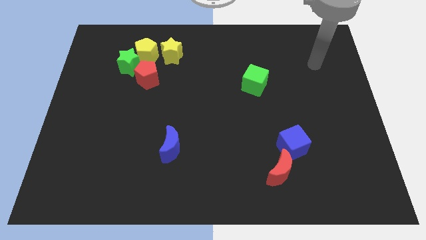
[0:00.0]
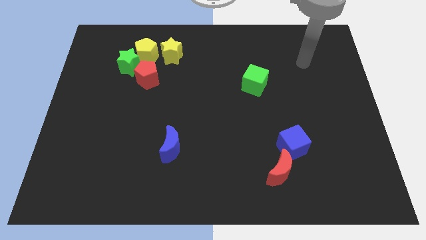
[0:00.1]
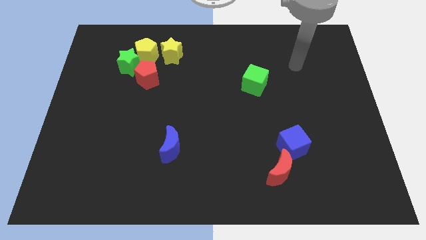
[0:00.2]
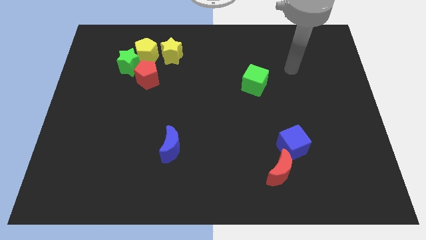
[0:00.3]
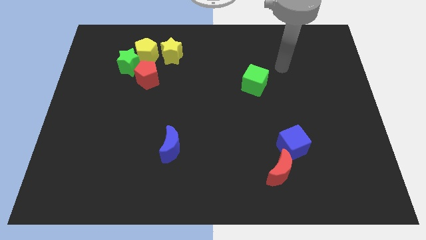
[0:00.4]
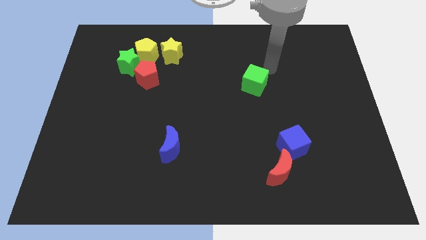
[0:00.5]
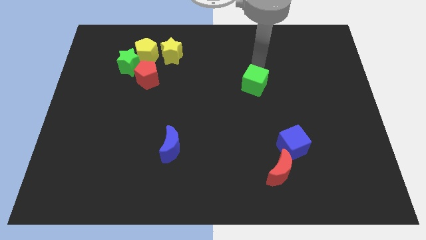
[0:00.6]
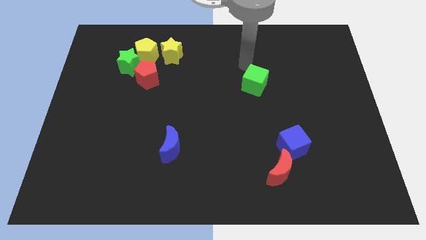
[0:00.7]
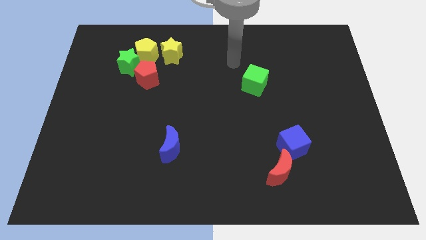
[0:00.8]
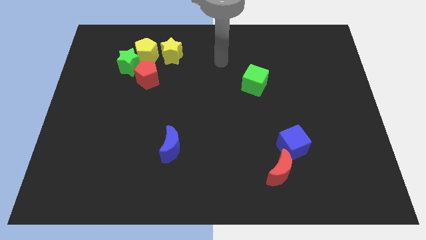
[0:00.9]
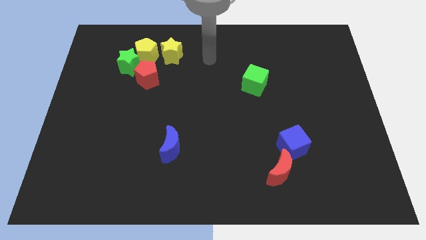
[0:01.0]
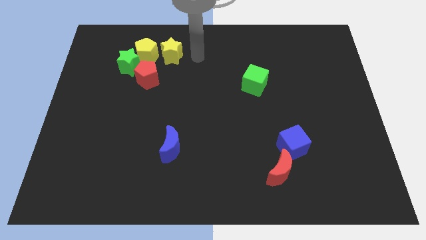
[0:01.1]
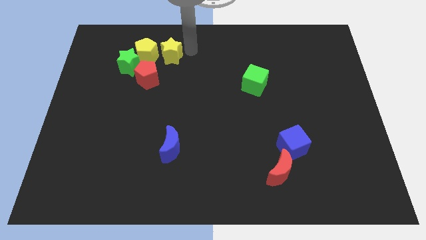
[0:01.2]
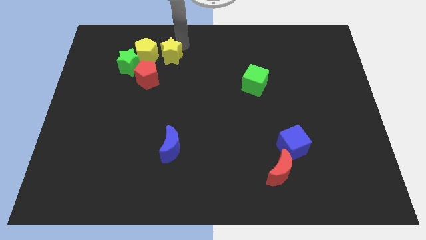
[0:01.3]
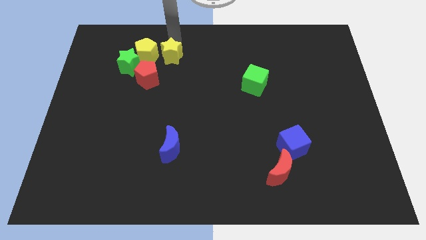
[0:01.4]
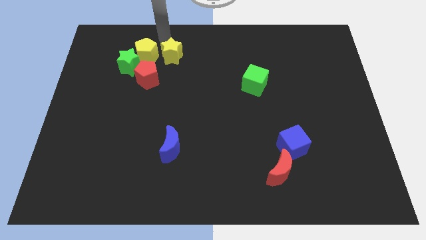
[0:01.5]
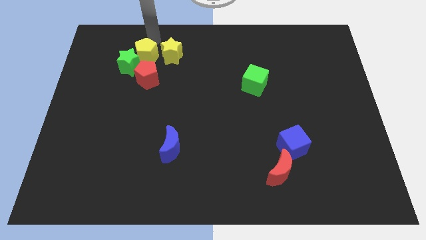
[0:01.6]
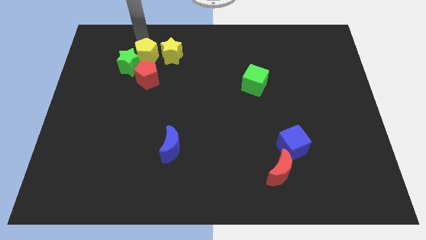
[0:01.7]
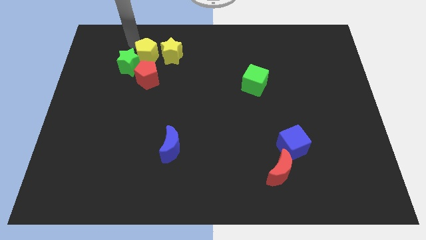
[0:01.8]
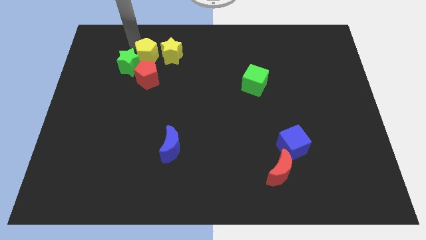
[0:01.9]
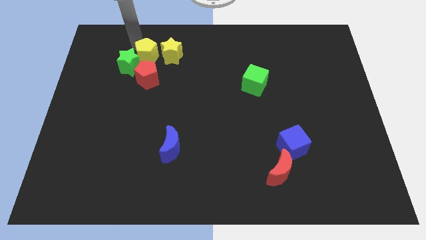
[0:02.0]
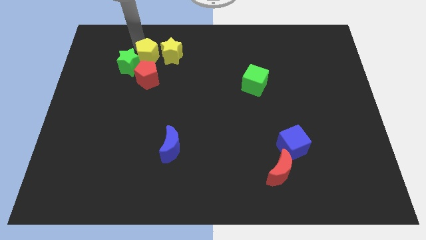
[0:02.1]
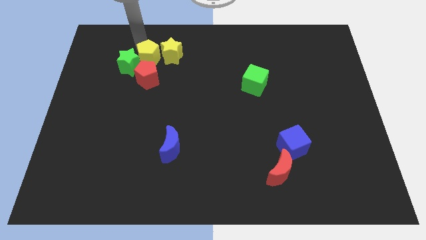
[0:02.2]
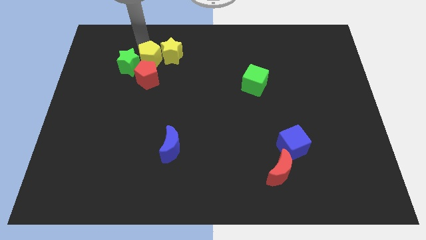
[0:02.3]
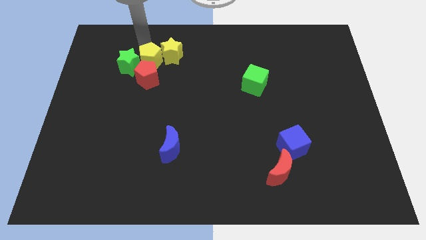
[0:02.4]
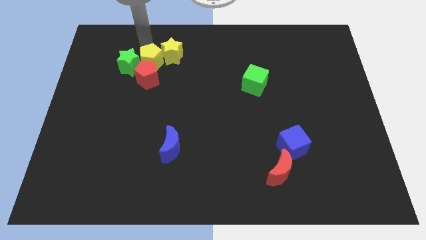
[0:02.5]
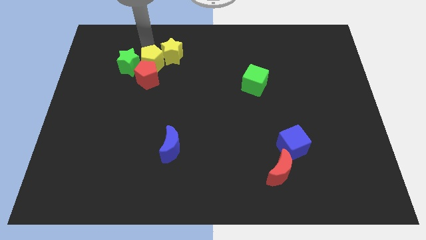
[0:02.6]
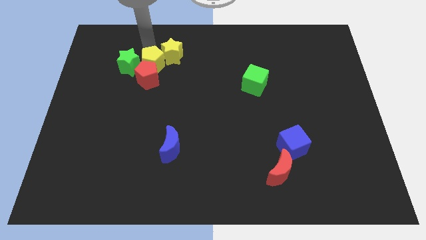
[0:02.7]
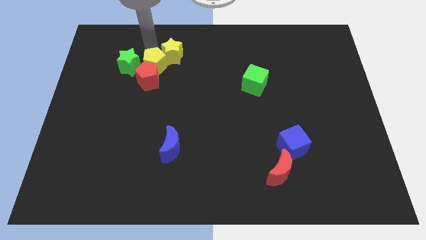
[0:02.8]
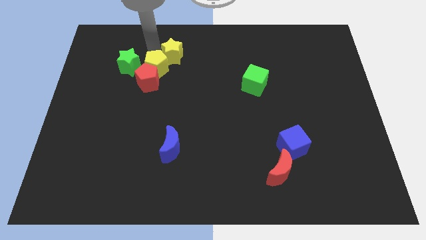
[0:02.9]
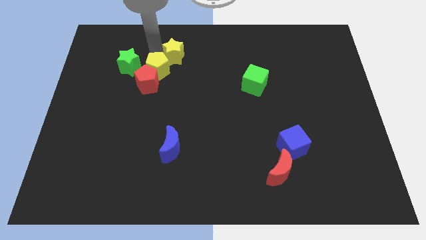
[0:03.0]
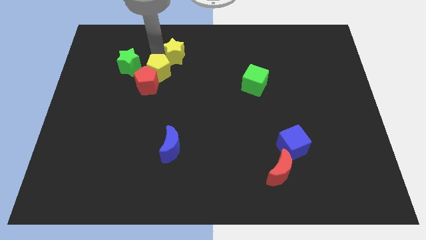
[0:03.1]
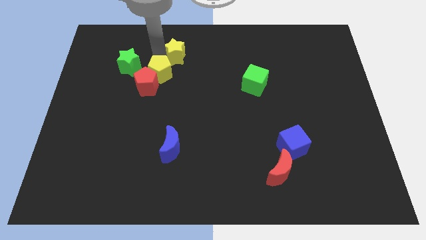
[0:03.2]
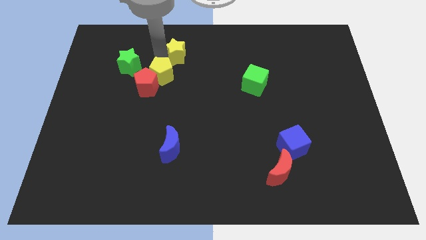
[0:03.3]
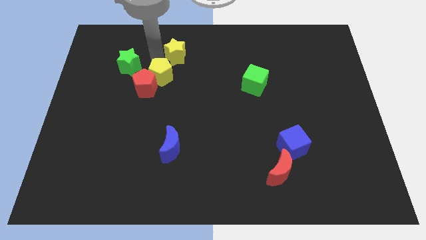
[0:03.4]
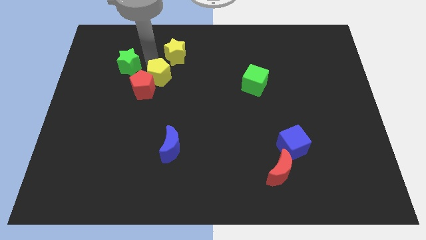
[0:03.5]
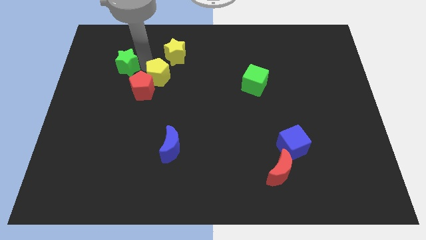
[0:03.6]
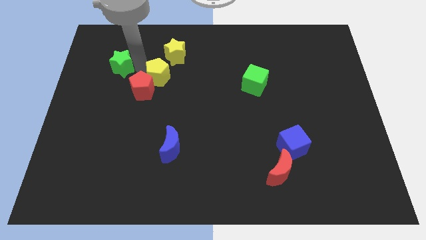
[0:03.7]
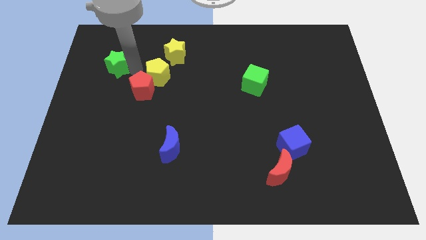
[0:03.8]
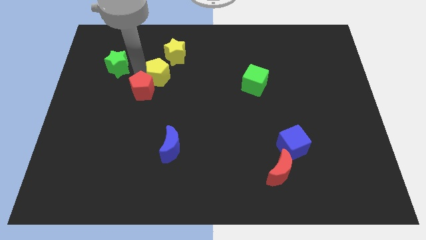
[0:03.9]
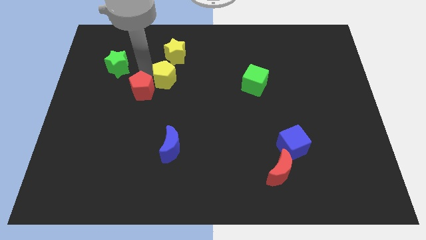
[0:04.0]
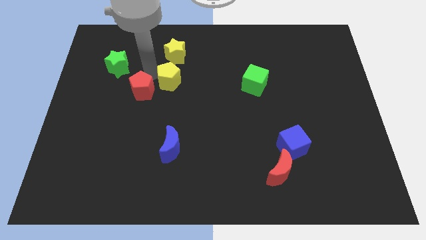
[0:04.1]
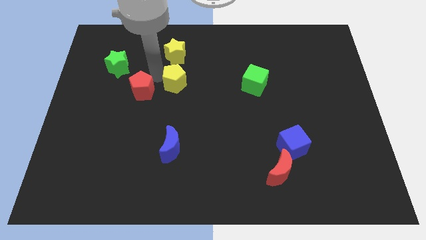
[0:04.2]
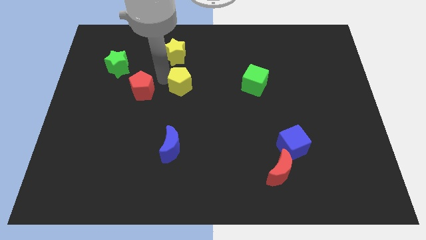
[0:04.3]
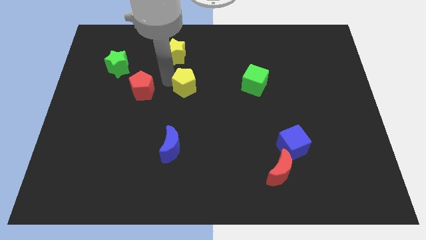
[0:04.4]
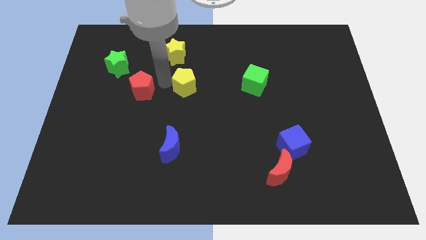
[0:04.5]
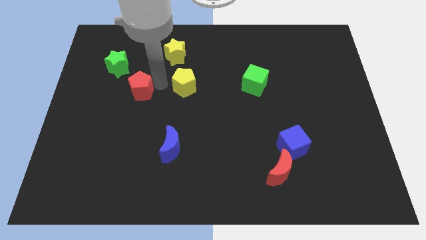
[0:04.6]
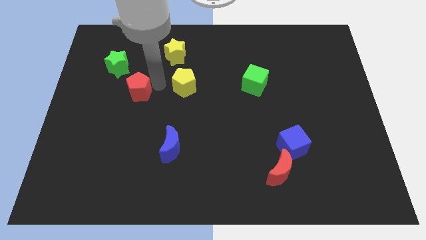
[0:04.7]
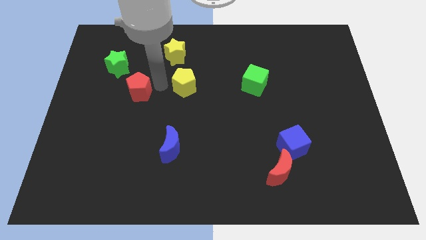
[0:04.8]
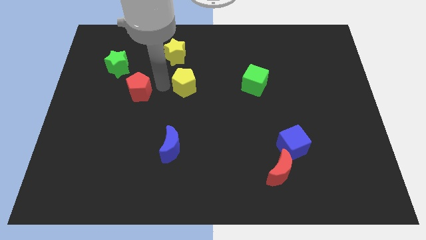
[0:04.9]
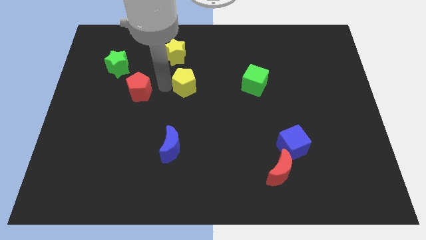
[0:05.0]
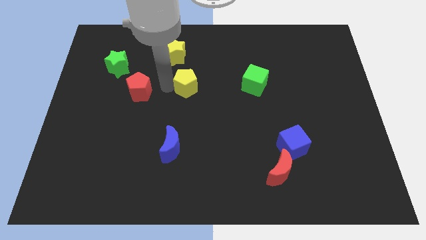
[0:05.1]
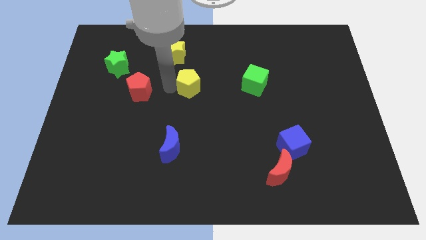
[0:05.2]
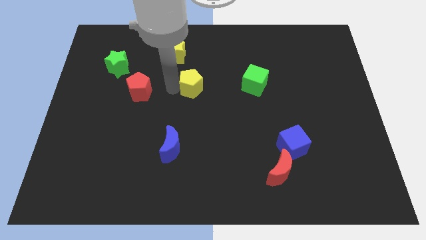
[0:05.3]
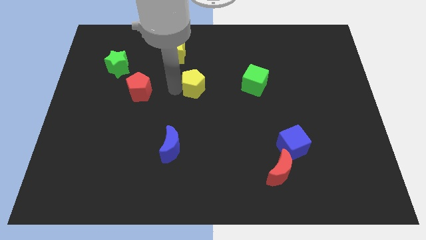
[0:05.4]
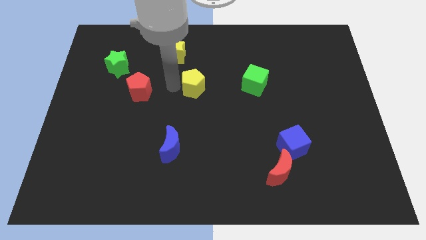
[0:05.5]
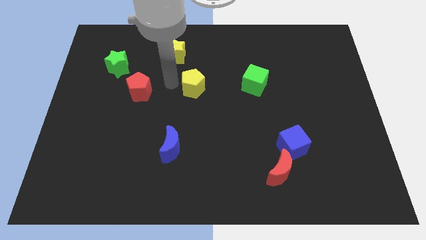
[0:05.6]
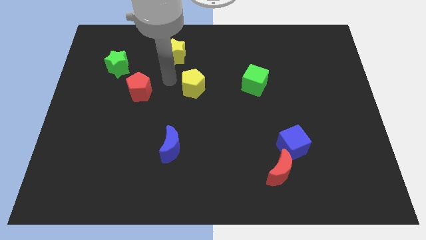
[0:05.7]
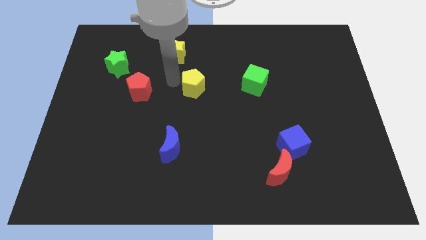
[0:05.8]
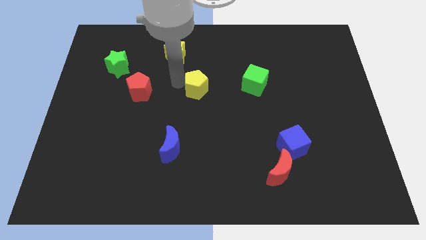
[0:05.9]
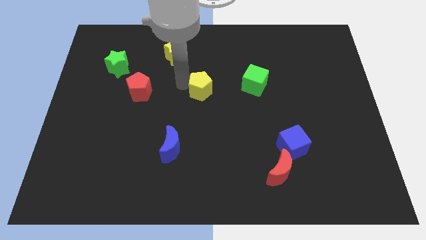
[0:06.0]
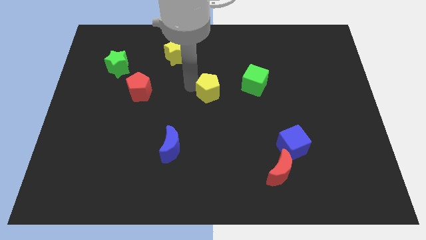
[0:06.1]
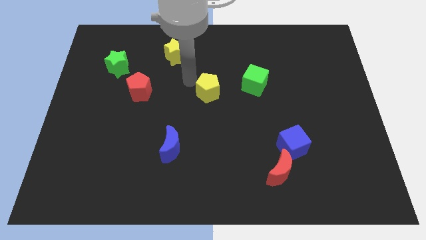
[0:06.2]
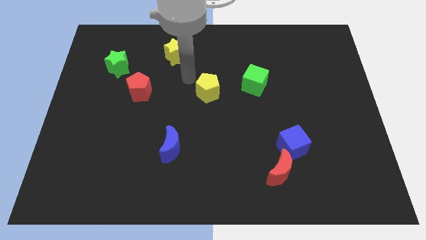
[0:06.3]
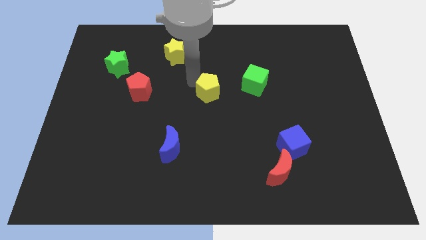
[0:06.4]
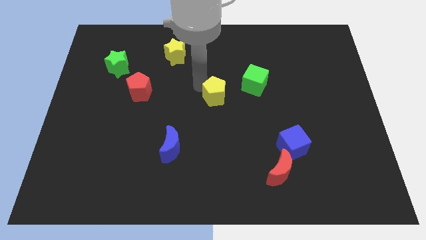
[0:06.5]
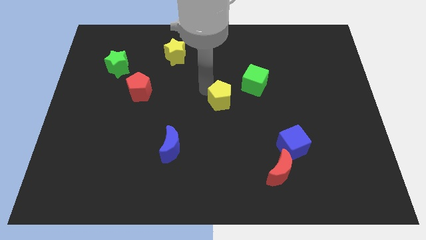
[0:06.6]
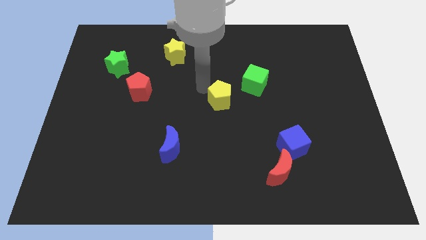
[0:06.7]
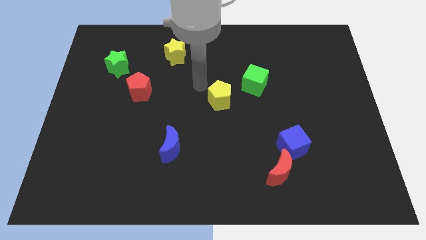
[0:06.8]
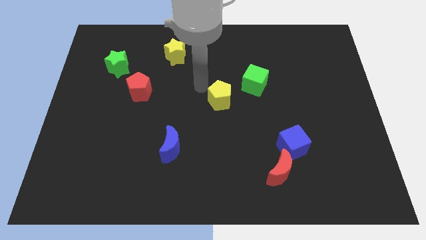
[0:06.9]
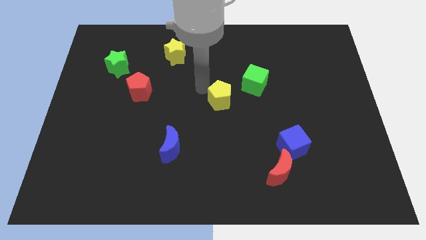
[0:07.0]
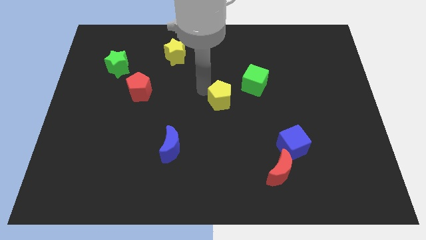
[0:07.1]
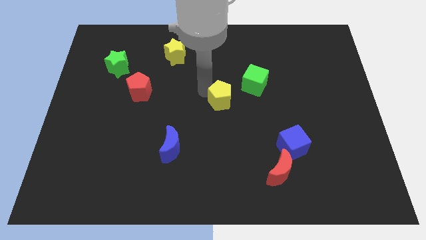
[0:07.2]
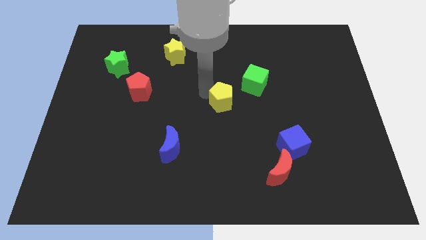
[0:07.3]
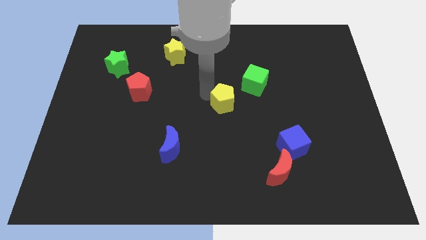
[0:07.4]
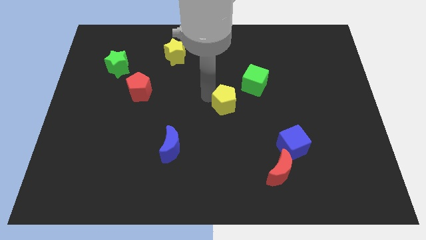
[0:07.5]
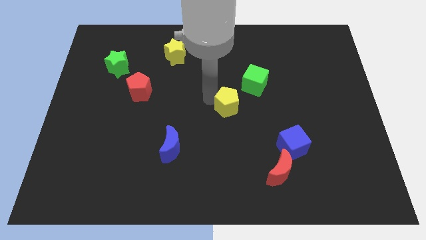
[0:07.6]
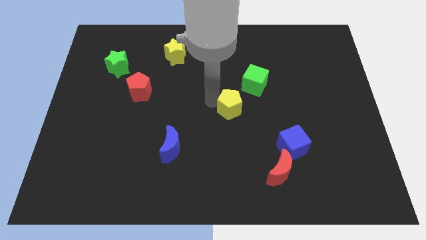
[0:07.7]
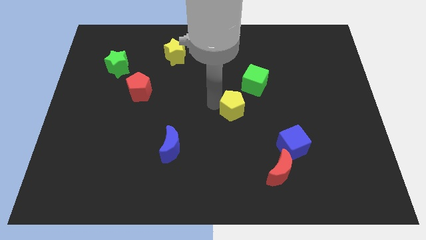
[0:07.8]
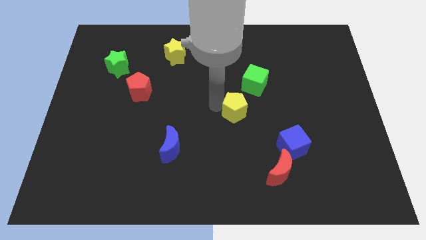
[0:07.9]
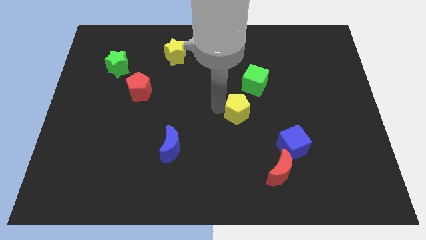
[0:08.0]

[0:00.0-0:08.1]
move the yellow pentagon below the green cube
